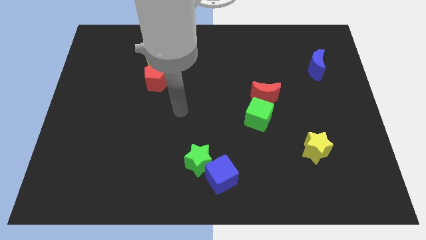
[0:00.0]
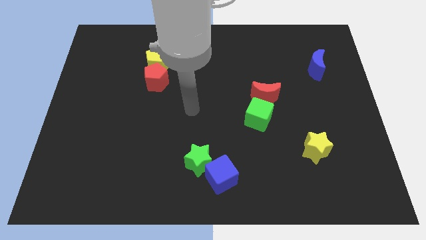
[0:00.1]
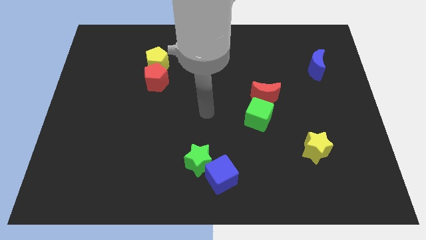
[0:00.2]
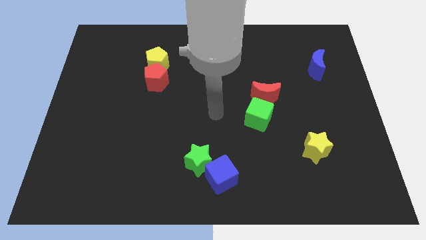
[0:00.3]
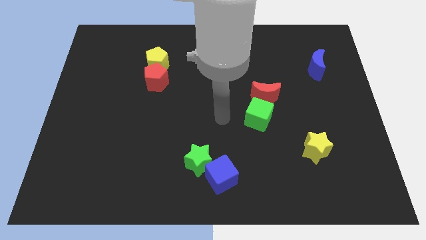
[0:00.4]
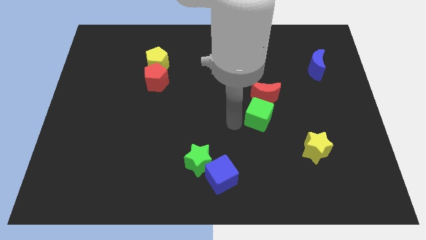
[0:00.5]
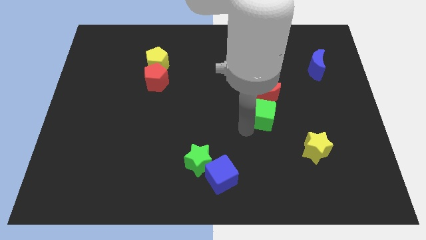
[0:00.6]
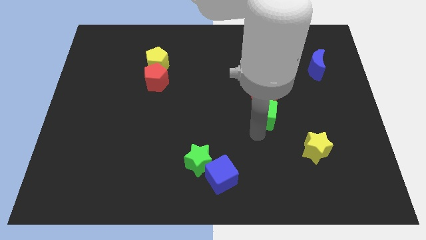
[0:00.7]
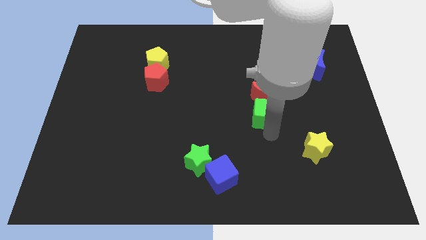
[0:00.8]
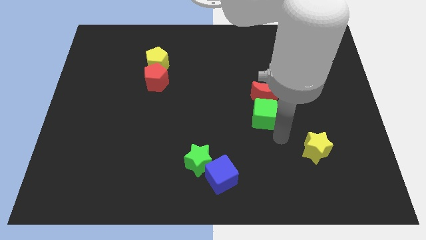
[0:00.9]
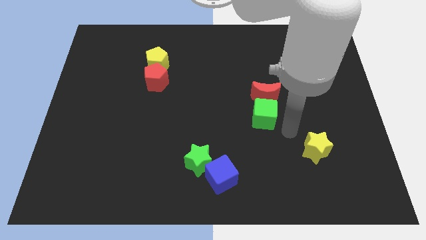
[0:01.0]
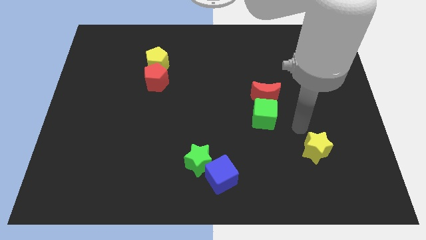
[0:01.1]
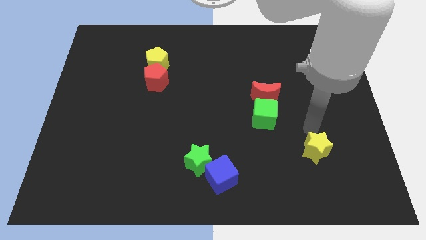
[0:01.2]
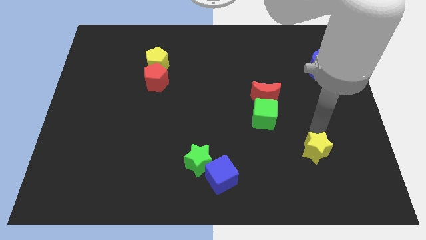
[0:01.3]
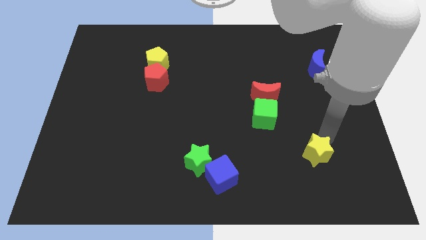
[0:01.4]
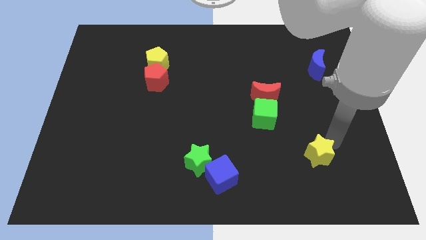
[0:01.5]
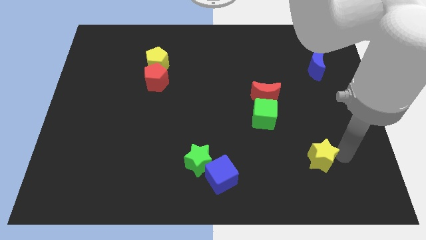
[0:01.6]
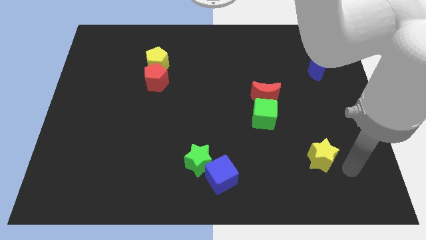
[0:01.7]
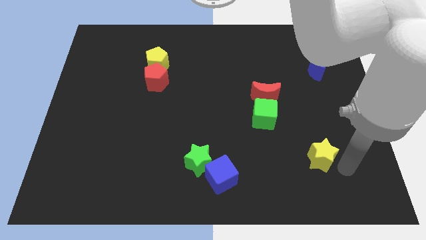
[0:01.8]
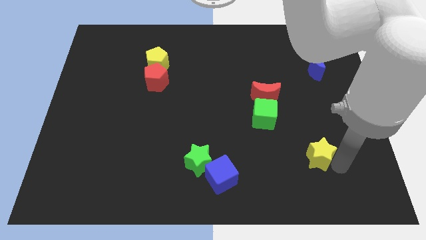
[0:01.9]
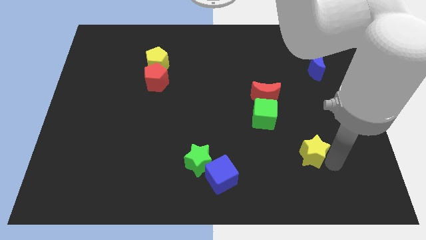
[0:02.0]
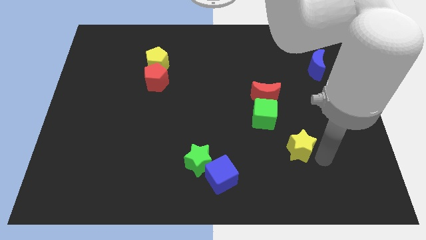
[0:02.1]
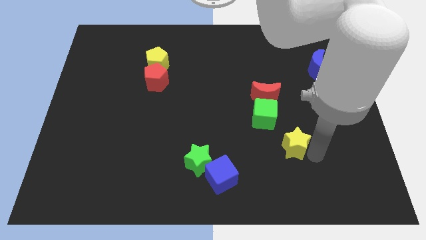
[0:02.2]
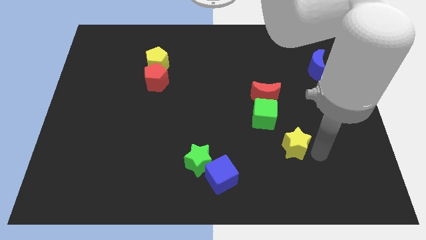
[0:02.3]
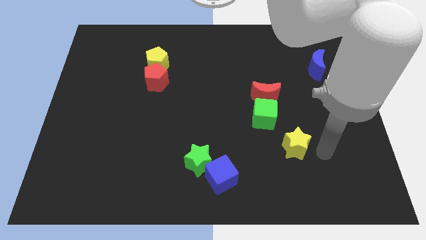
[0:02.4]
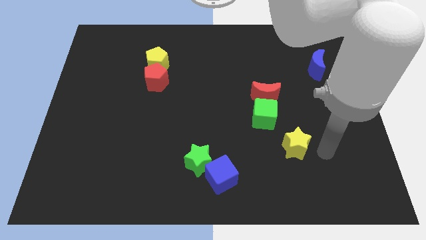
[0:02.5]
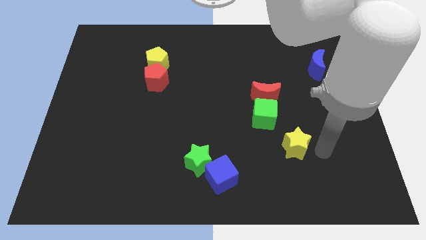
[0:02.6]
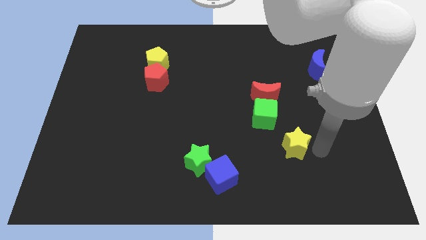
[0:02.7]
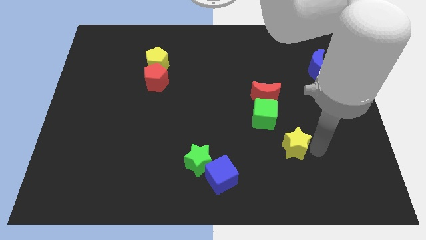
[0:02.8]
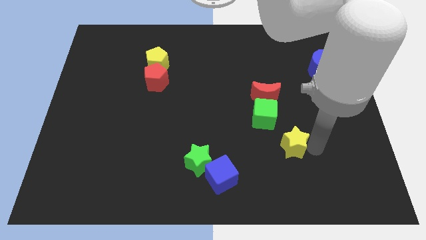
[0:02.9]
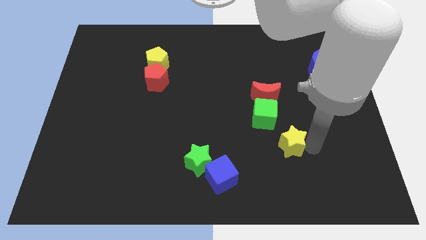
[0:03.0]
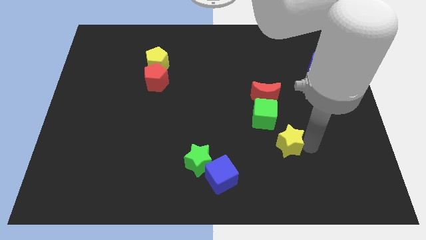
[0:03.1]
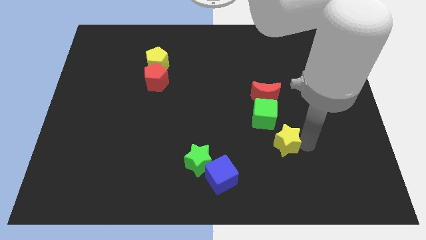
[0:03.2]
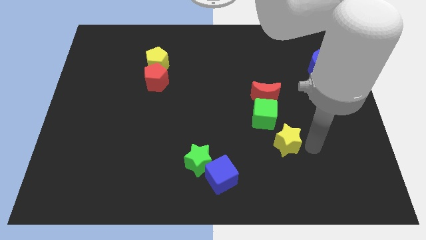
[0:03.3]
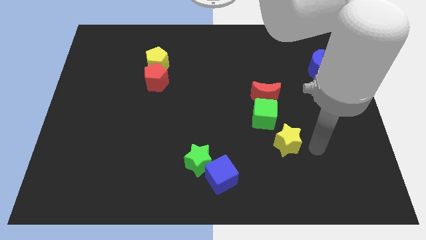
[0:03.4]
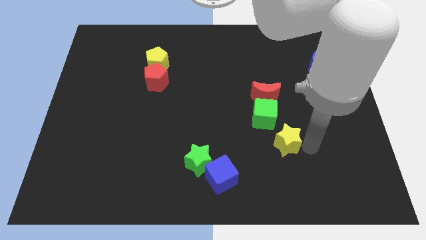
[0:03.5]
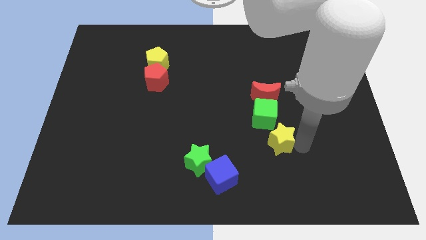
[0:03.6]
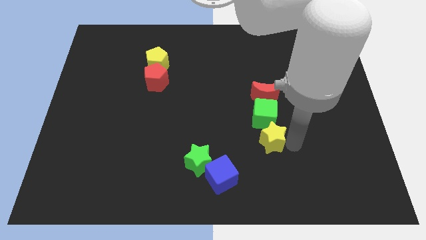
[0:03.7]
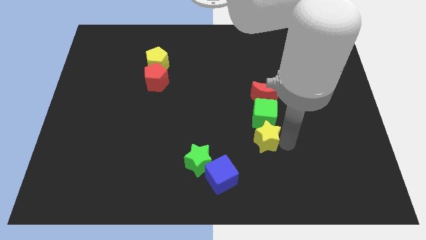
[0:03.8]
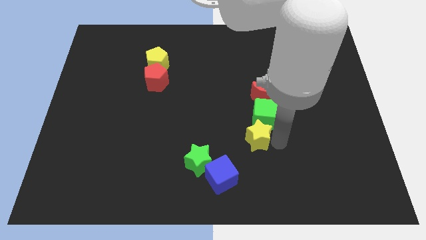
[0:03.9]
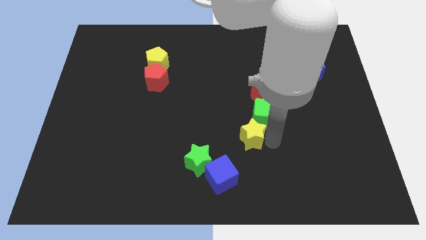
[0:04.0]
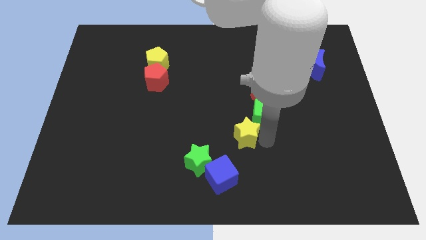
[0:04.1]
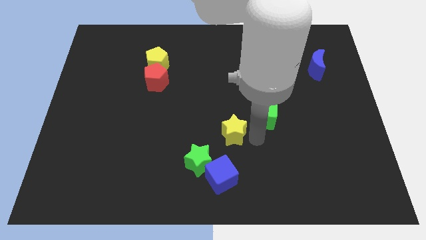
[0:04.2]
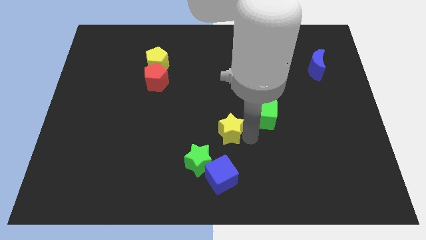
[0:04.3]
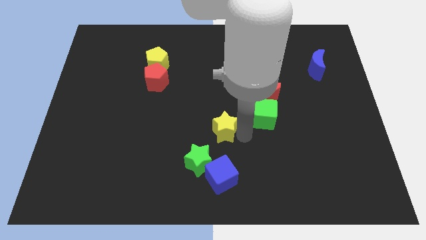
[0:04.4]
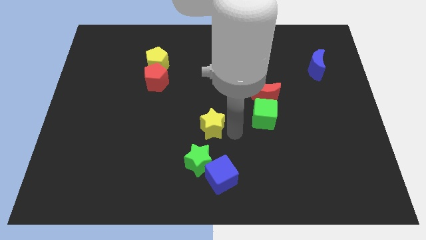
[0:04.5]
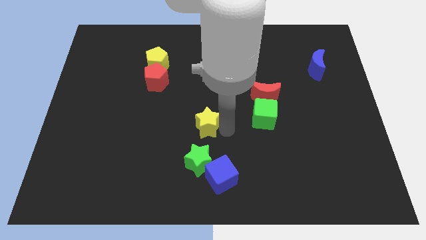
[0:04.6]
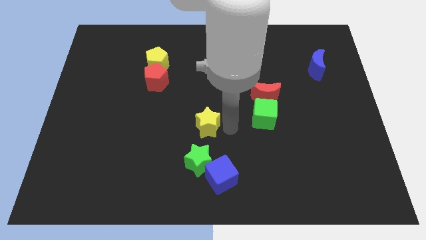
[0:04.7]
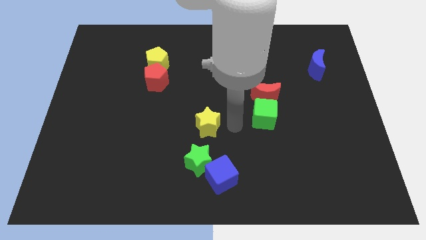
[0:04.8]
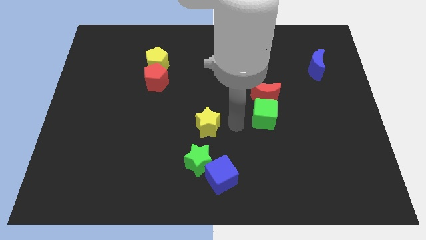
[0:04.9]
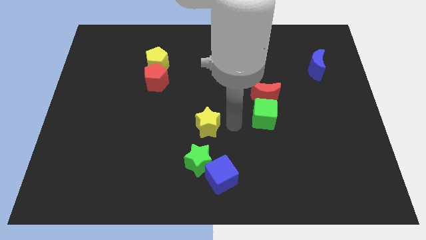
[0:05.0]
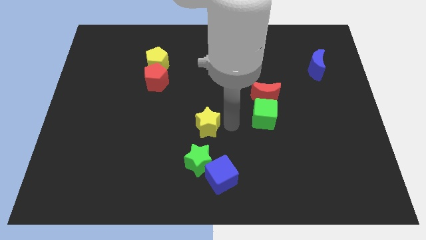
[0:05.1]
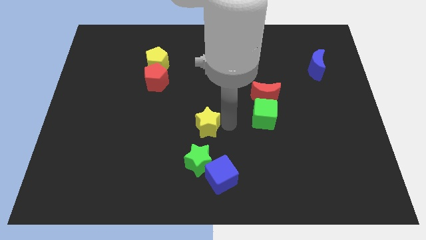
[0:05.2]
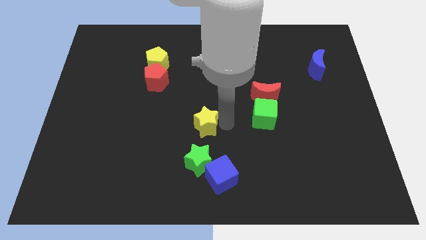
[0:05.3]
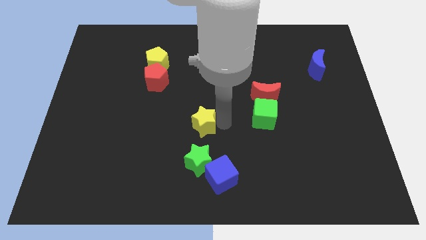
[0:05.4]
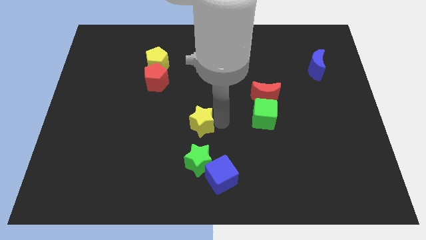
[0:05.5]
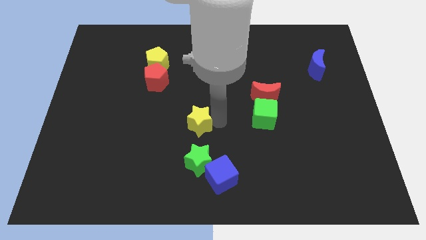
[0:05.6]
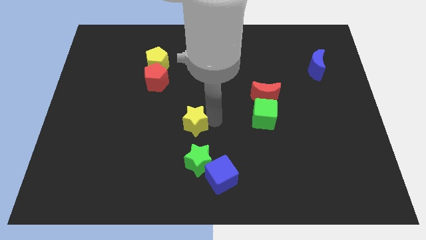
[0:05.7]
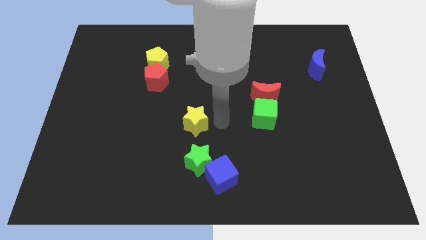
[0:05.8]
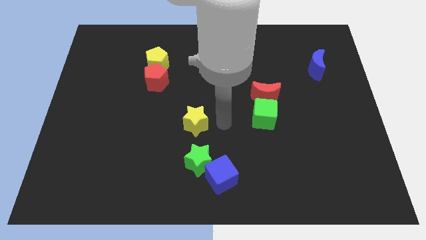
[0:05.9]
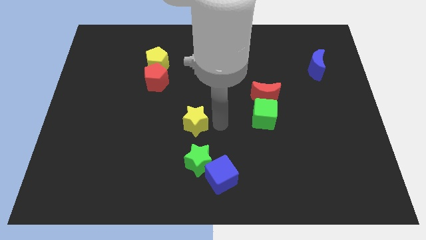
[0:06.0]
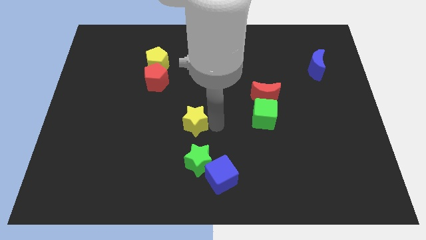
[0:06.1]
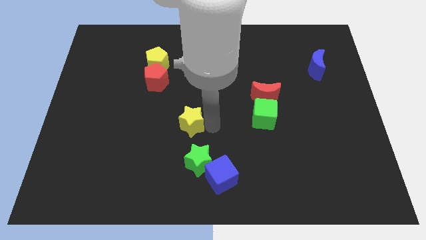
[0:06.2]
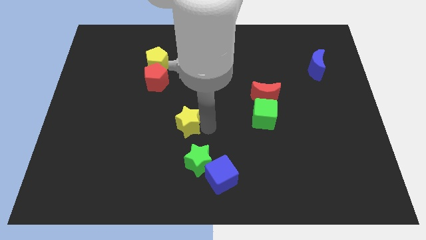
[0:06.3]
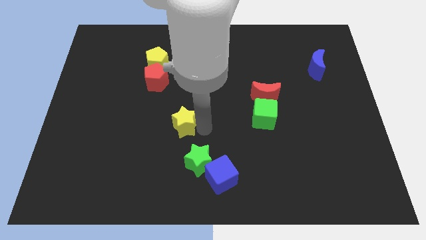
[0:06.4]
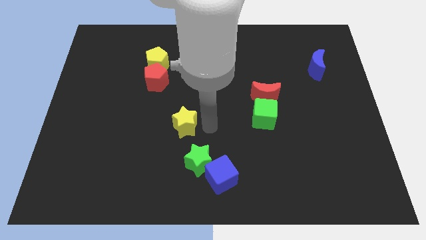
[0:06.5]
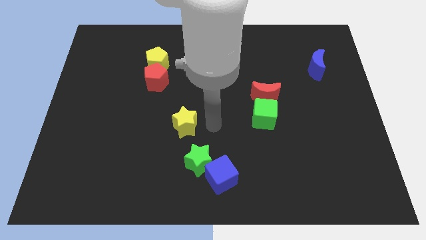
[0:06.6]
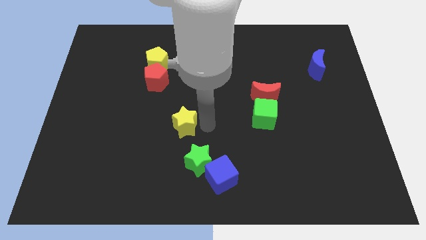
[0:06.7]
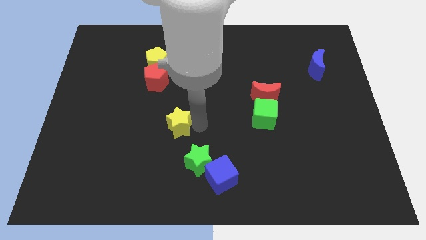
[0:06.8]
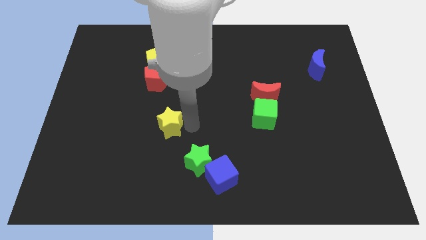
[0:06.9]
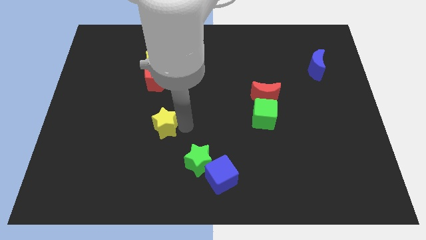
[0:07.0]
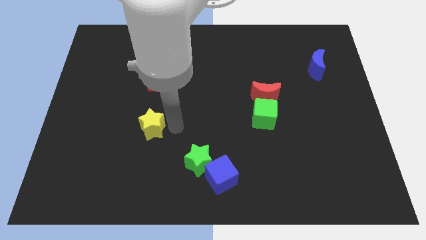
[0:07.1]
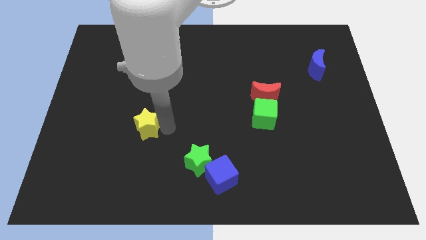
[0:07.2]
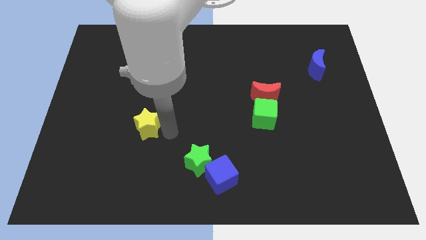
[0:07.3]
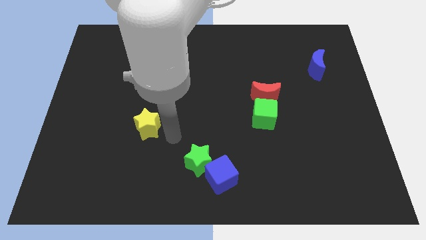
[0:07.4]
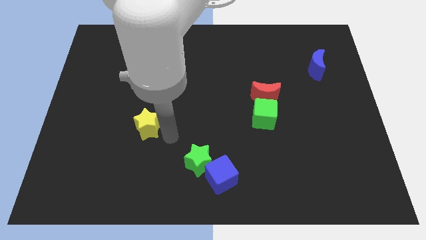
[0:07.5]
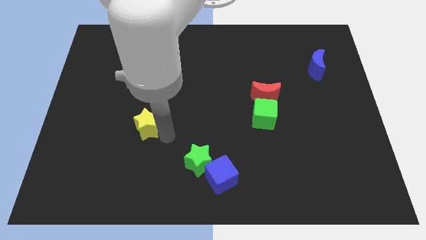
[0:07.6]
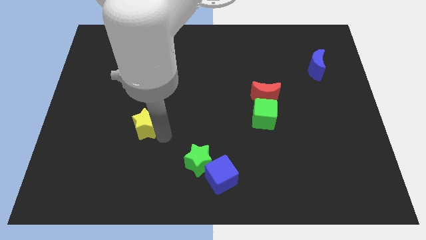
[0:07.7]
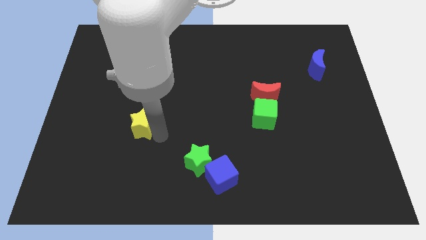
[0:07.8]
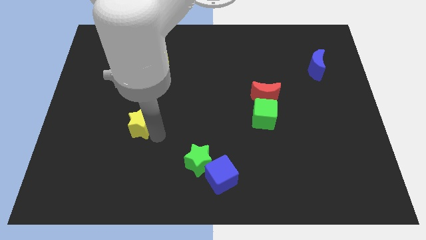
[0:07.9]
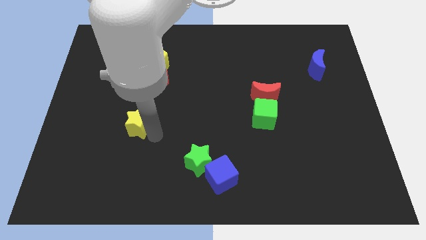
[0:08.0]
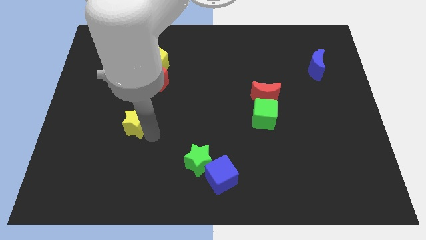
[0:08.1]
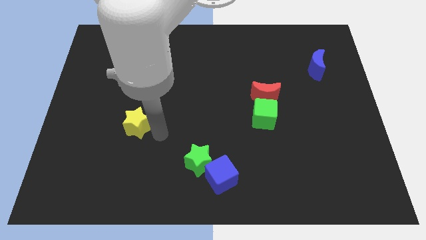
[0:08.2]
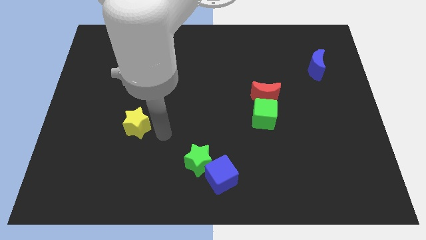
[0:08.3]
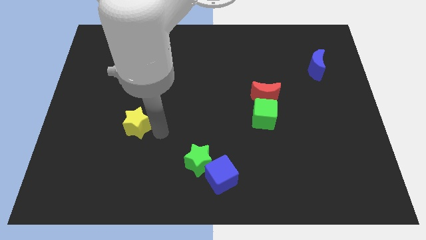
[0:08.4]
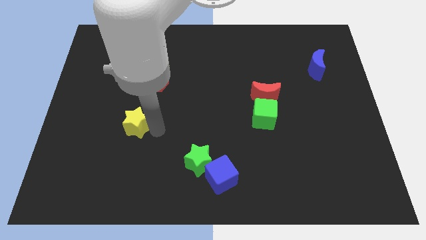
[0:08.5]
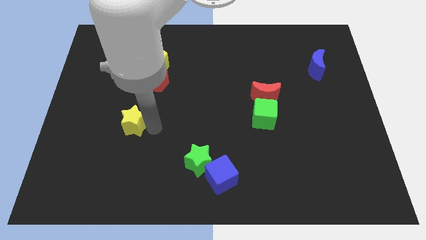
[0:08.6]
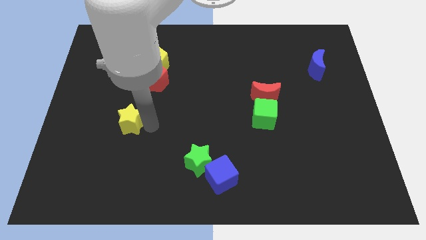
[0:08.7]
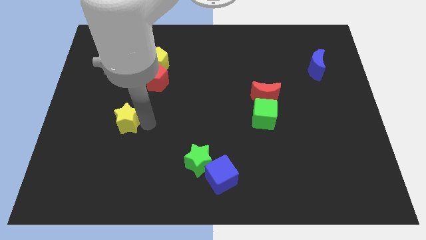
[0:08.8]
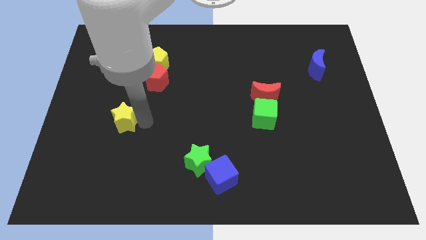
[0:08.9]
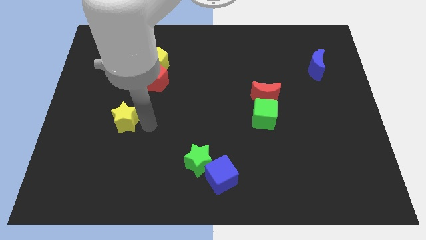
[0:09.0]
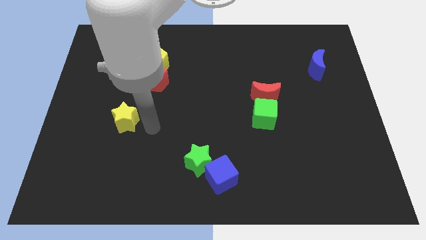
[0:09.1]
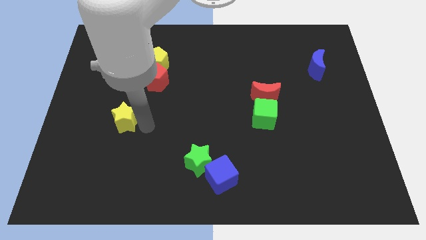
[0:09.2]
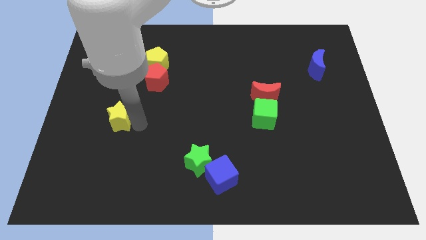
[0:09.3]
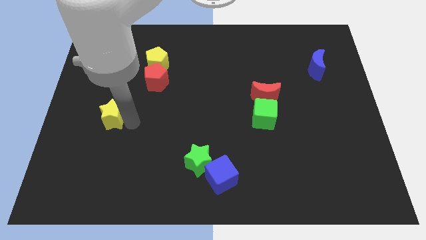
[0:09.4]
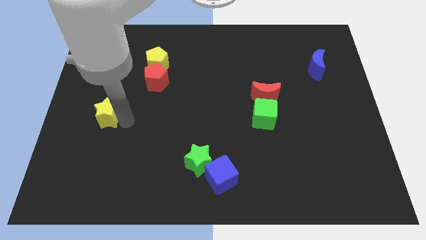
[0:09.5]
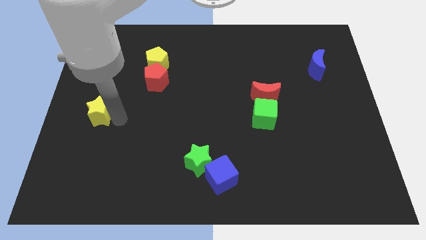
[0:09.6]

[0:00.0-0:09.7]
move the yellow star to the left side
